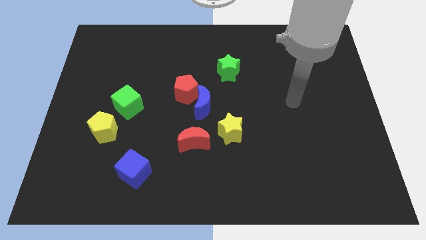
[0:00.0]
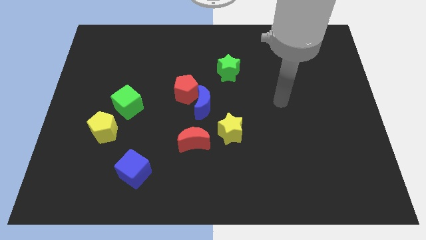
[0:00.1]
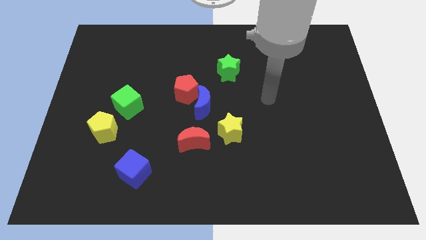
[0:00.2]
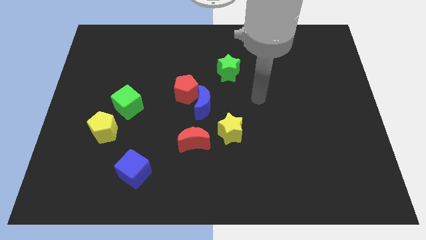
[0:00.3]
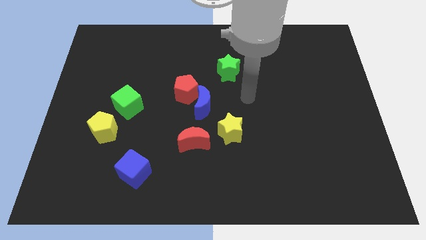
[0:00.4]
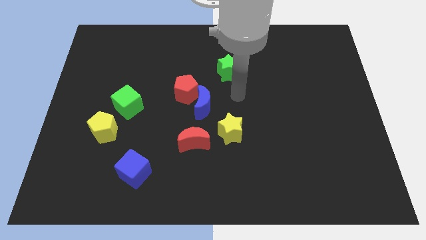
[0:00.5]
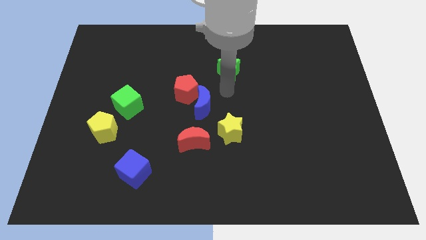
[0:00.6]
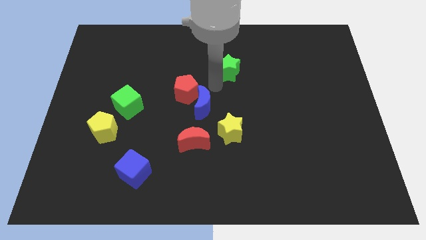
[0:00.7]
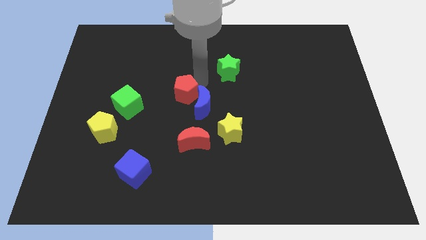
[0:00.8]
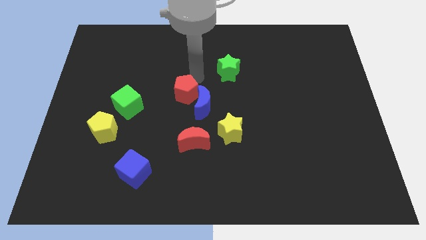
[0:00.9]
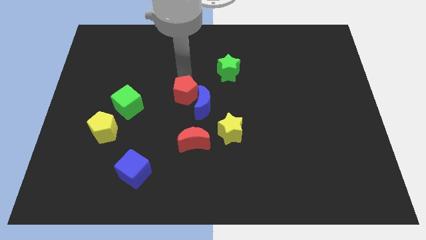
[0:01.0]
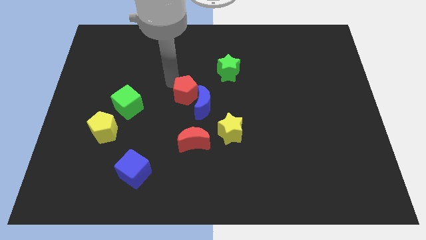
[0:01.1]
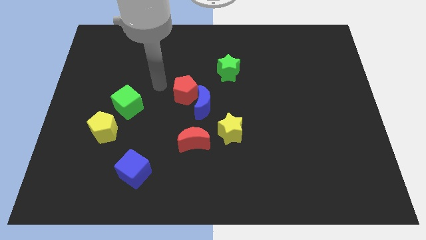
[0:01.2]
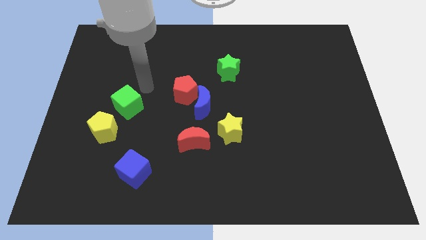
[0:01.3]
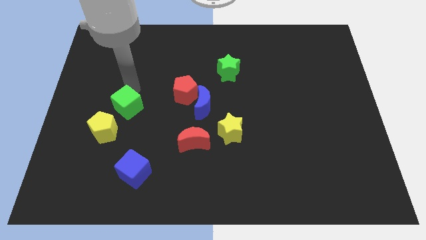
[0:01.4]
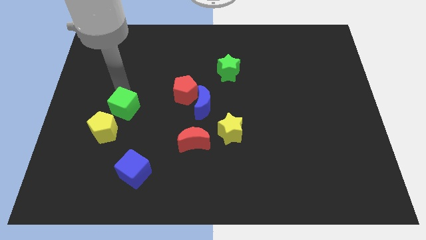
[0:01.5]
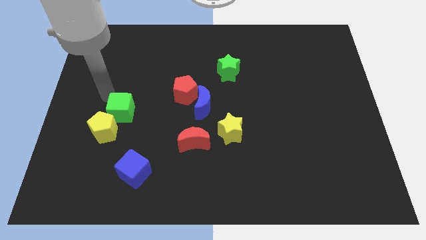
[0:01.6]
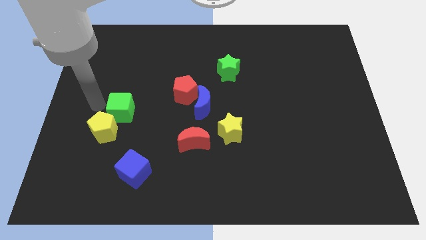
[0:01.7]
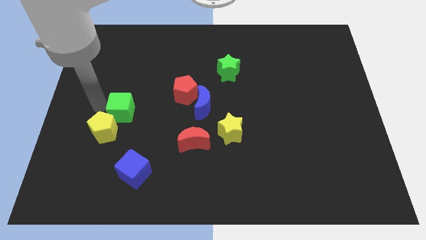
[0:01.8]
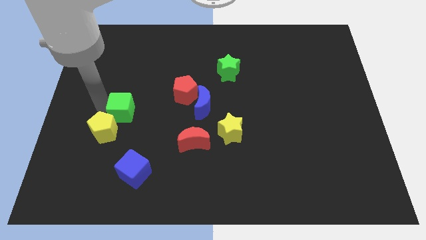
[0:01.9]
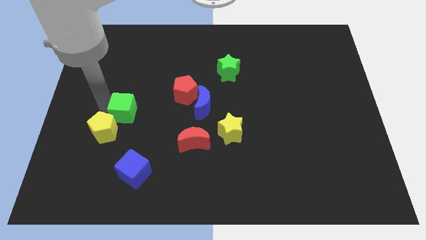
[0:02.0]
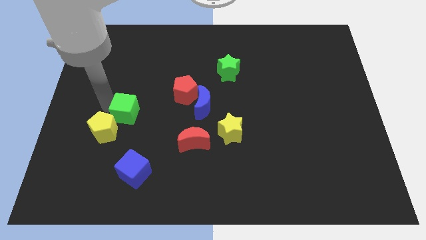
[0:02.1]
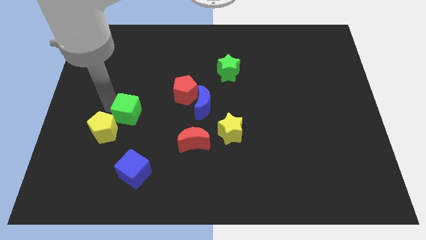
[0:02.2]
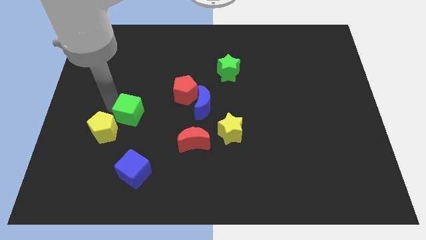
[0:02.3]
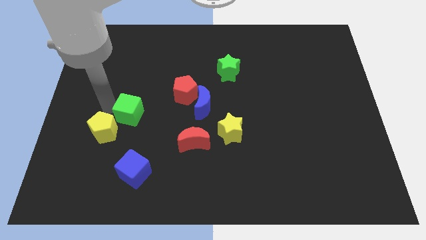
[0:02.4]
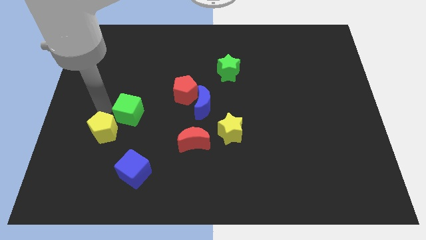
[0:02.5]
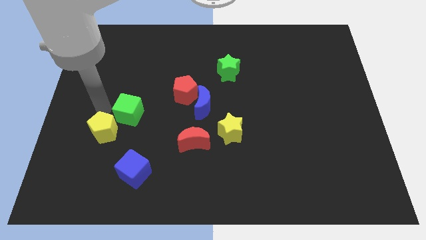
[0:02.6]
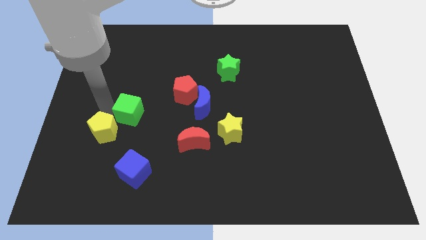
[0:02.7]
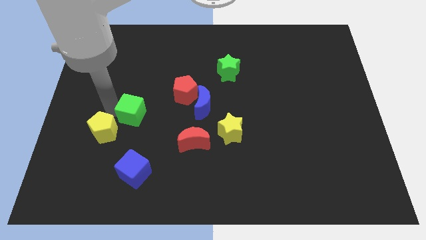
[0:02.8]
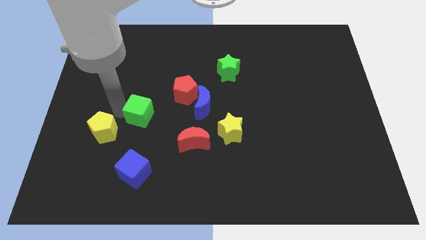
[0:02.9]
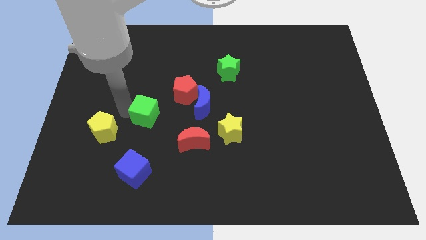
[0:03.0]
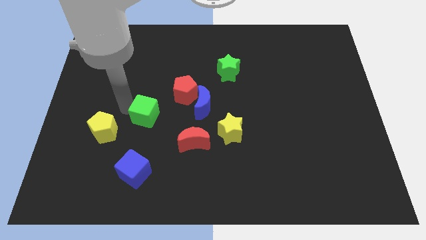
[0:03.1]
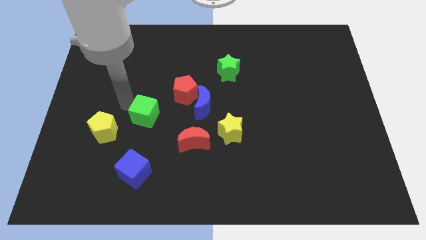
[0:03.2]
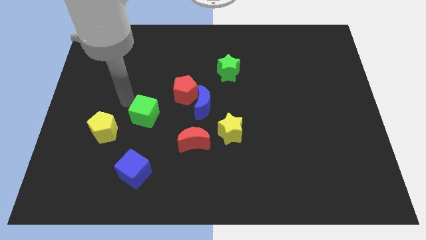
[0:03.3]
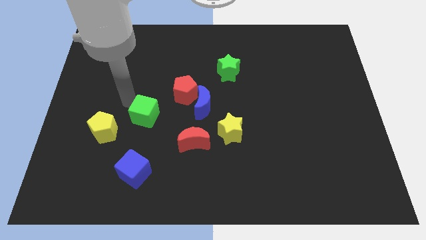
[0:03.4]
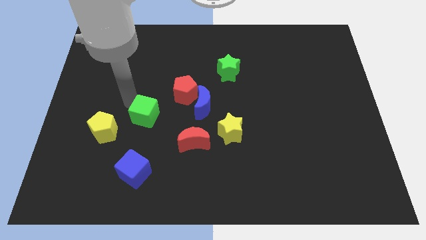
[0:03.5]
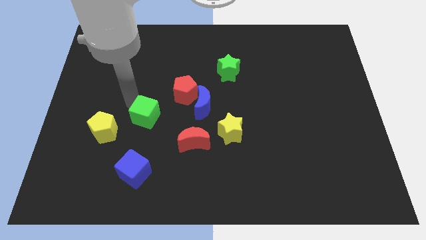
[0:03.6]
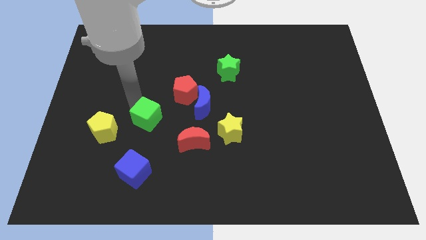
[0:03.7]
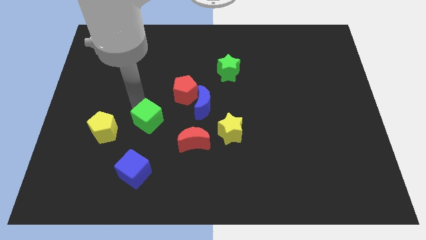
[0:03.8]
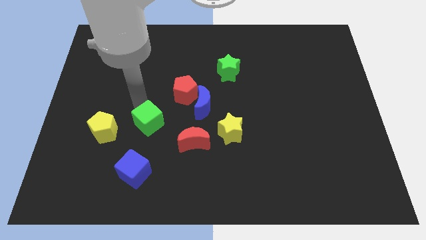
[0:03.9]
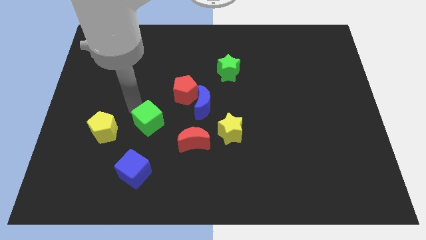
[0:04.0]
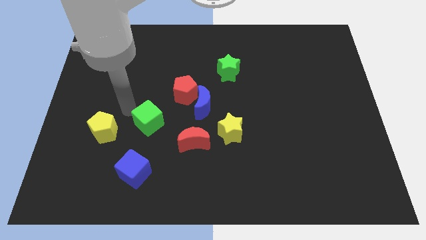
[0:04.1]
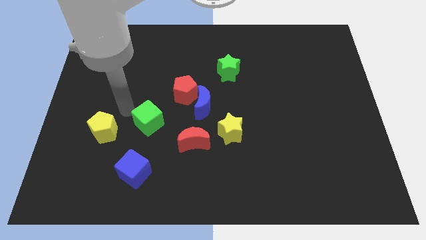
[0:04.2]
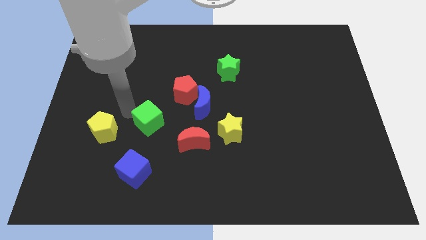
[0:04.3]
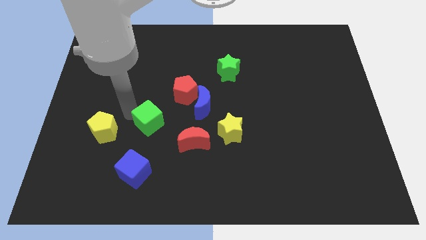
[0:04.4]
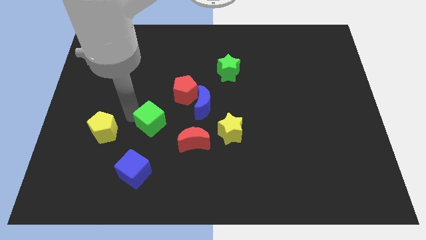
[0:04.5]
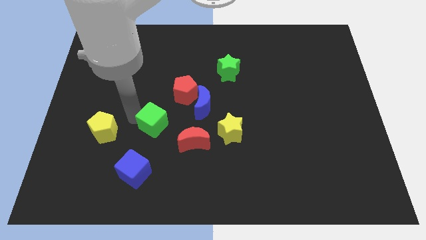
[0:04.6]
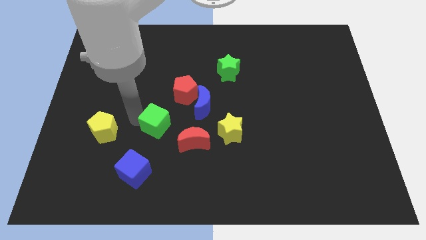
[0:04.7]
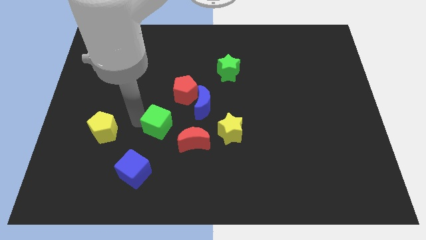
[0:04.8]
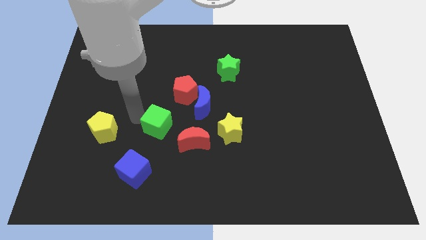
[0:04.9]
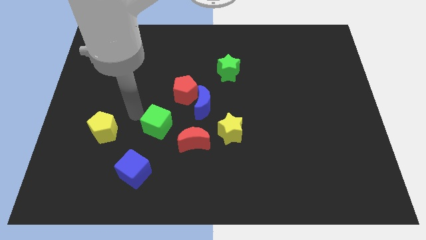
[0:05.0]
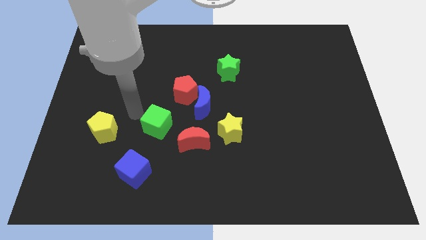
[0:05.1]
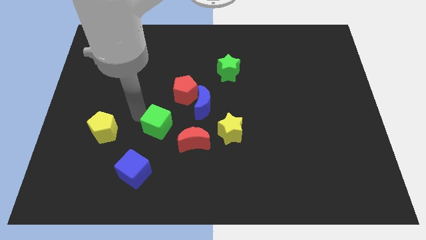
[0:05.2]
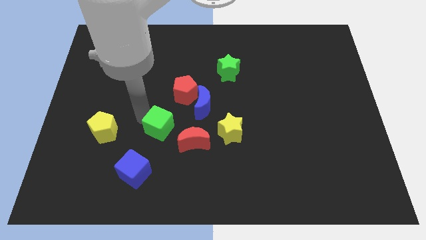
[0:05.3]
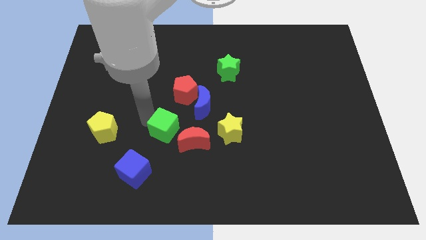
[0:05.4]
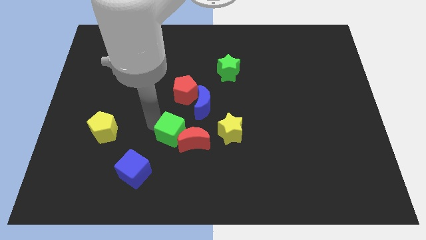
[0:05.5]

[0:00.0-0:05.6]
push the green cube to the red moon

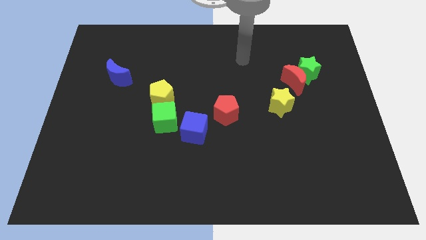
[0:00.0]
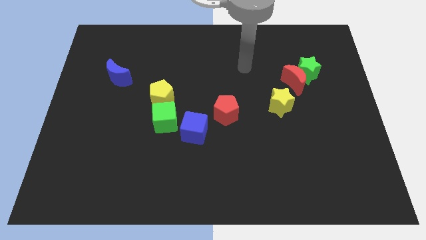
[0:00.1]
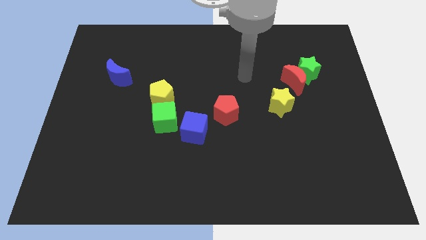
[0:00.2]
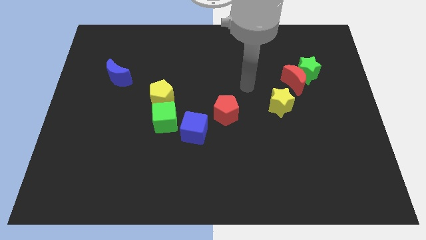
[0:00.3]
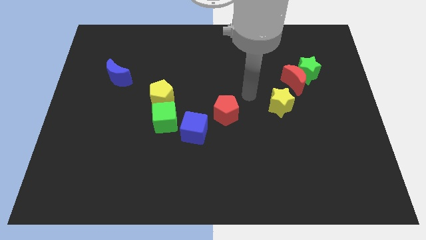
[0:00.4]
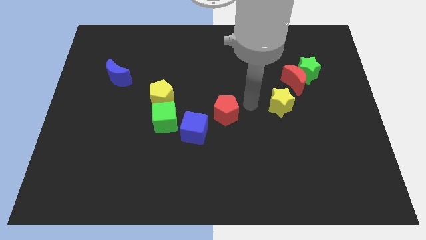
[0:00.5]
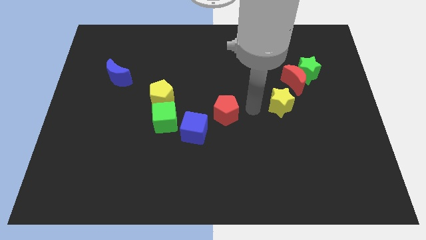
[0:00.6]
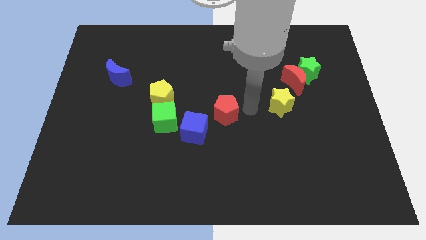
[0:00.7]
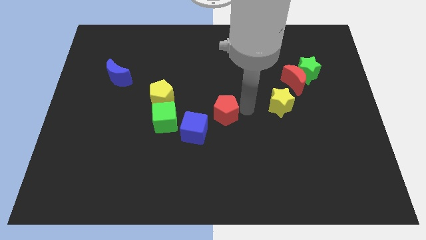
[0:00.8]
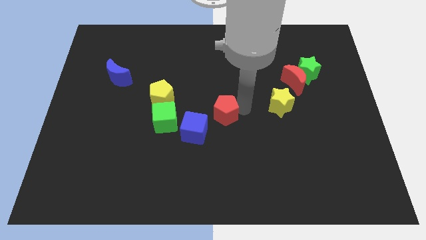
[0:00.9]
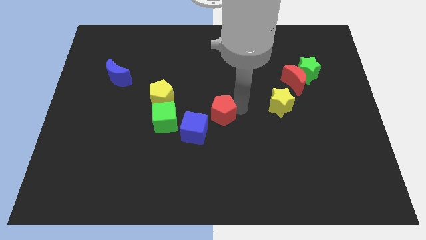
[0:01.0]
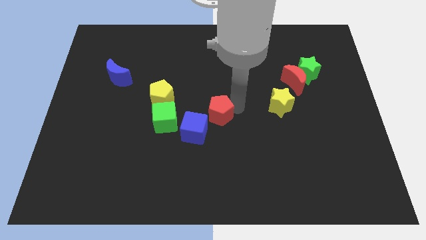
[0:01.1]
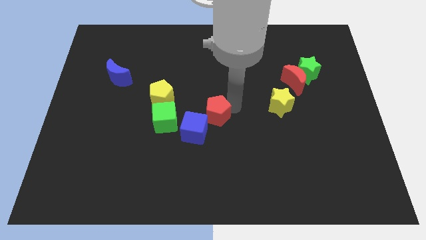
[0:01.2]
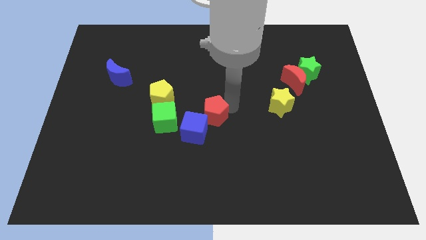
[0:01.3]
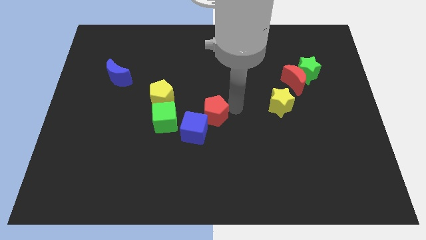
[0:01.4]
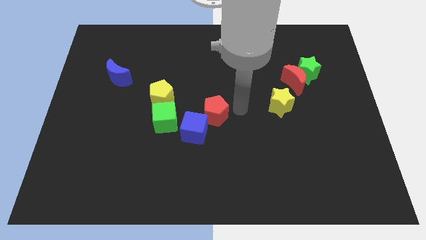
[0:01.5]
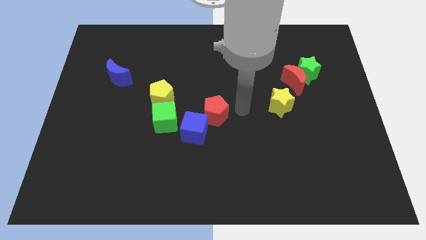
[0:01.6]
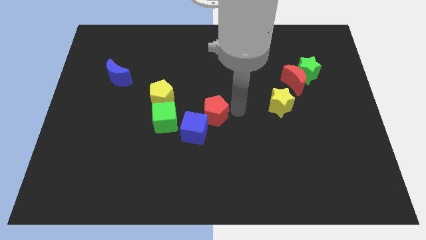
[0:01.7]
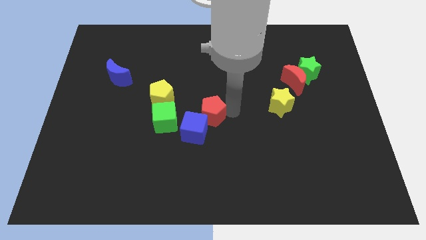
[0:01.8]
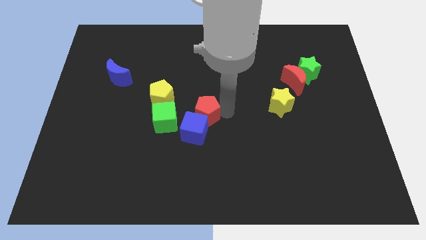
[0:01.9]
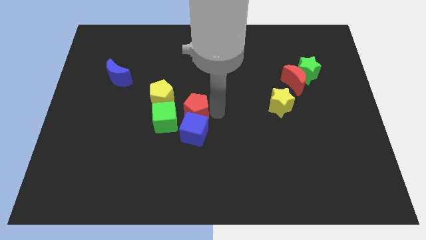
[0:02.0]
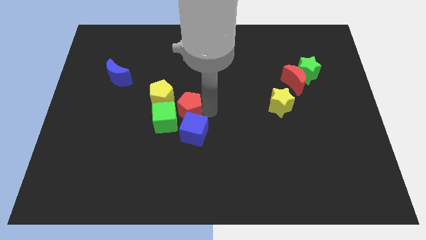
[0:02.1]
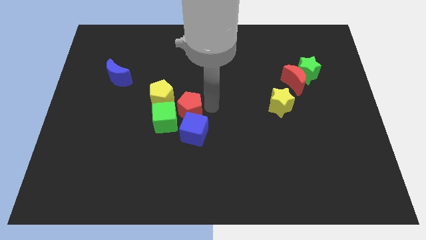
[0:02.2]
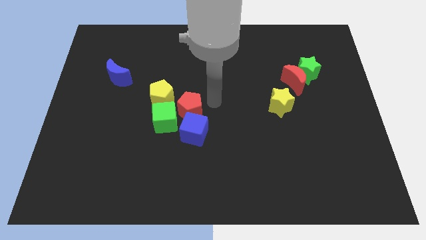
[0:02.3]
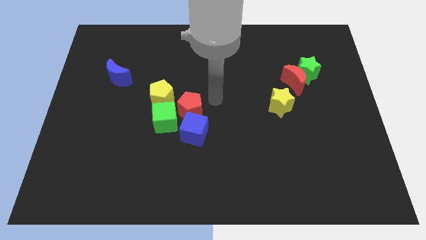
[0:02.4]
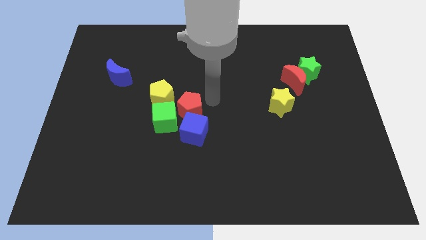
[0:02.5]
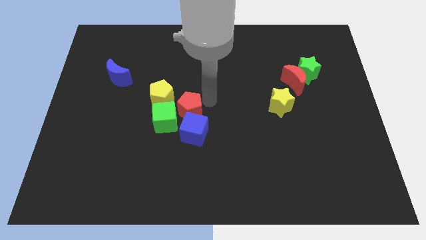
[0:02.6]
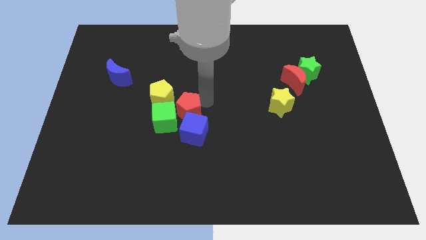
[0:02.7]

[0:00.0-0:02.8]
put the red pentagon close to the green cube

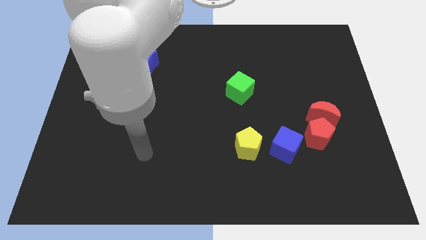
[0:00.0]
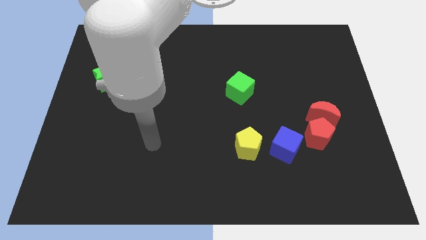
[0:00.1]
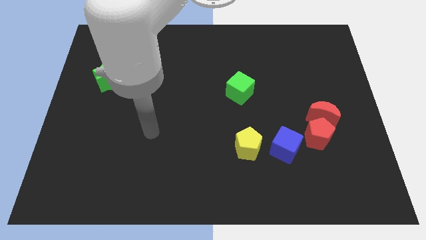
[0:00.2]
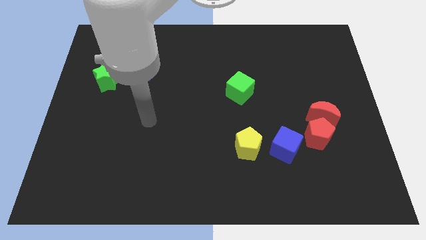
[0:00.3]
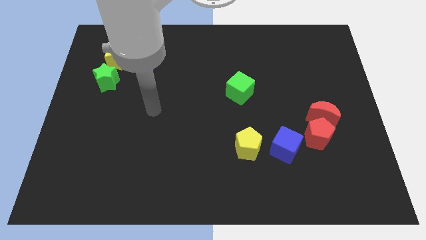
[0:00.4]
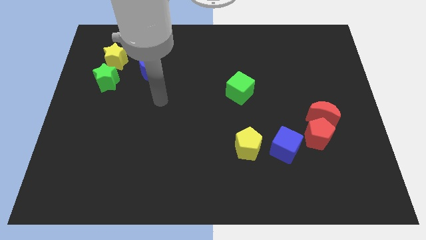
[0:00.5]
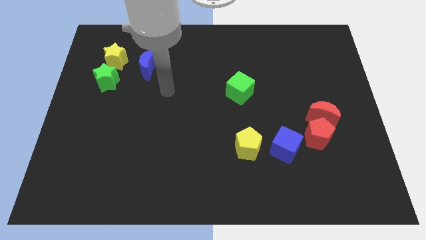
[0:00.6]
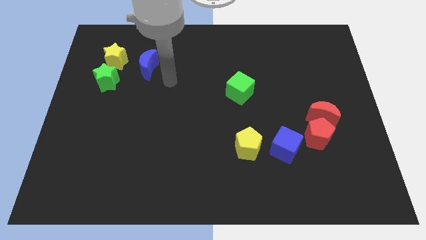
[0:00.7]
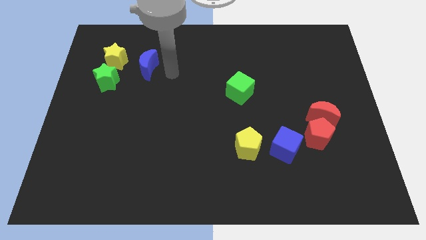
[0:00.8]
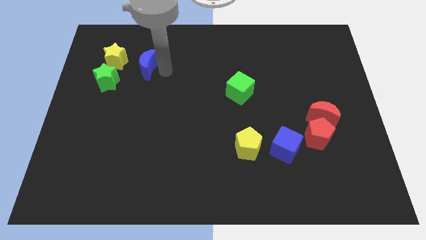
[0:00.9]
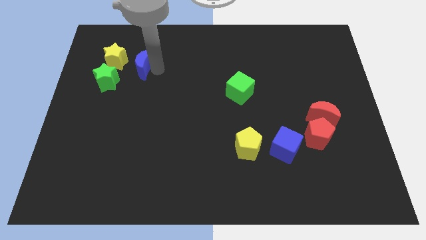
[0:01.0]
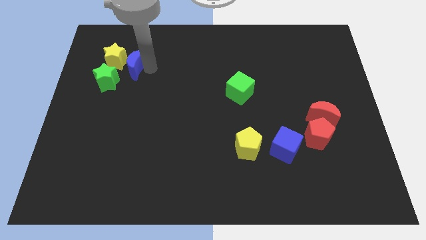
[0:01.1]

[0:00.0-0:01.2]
push the blue moon towards the yellow star
